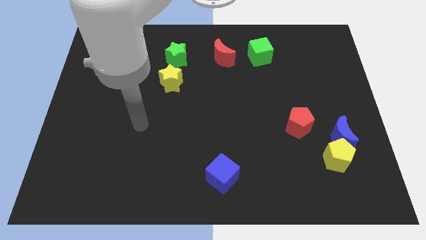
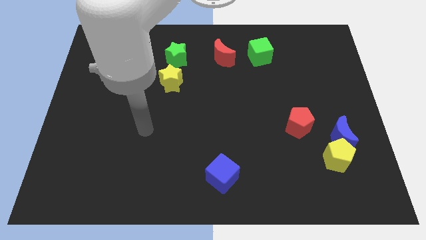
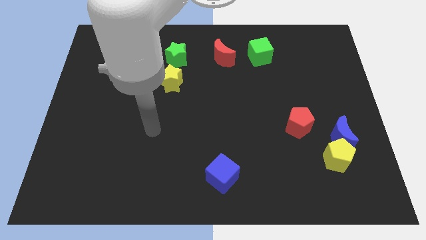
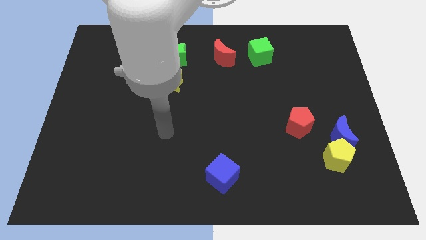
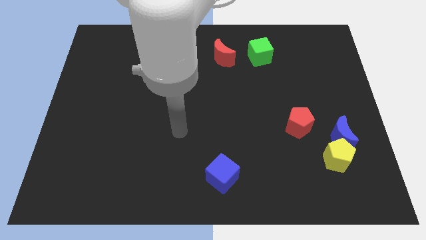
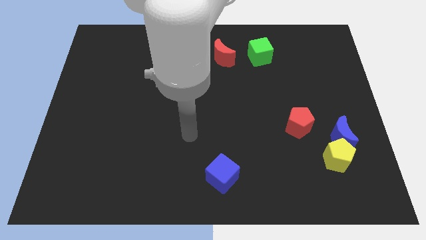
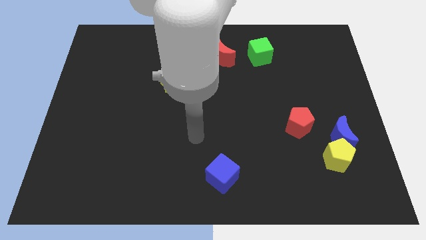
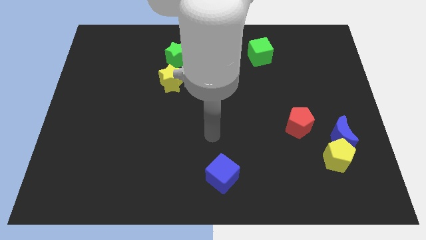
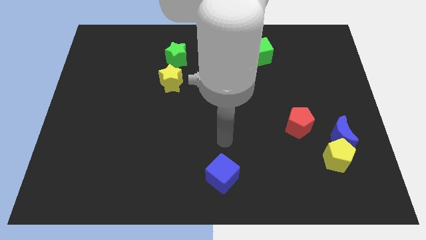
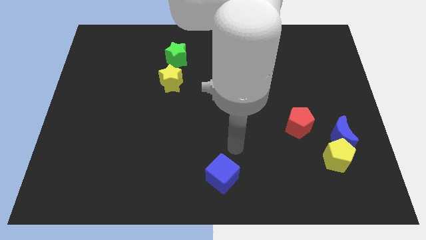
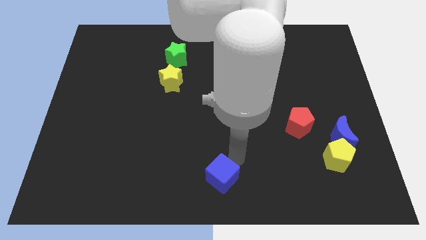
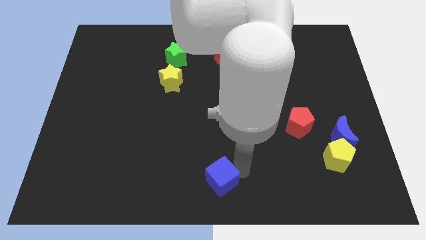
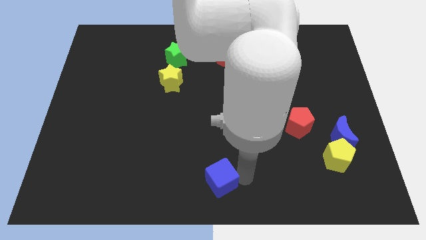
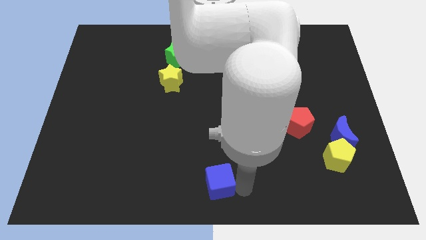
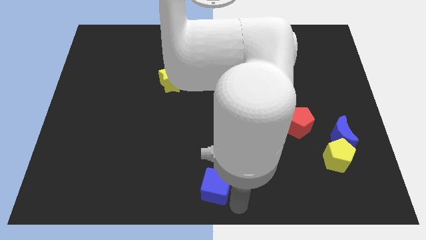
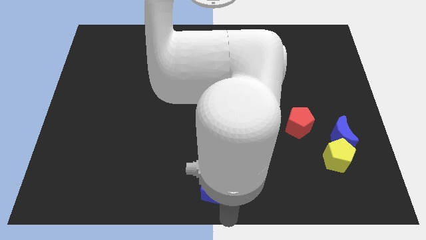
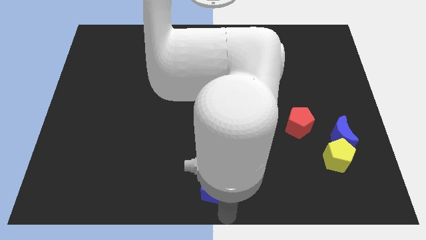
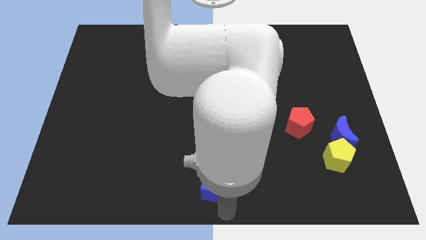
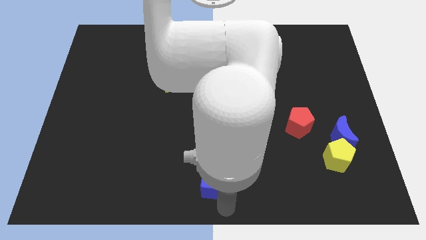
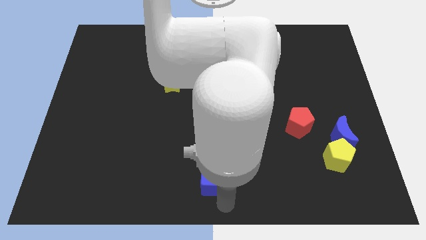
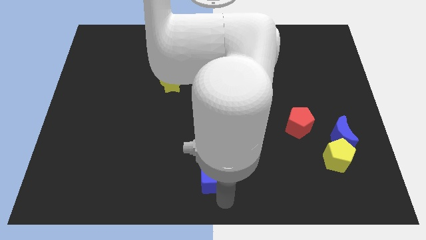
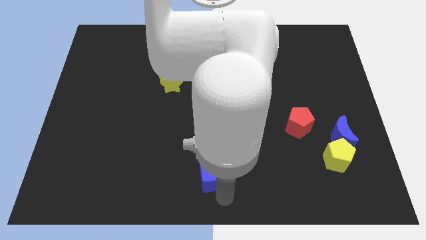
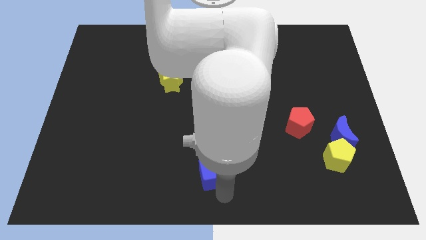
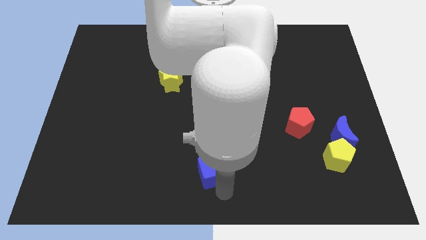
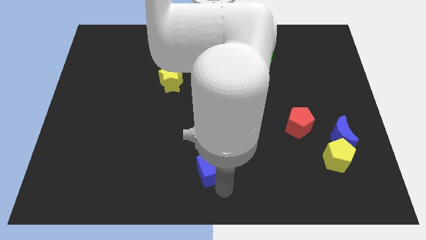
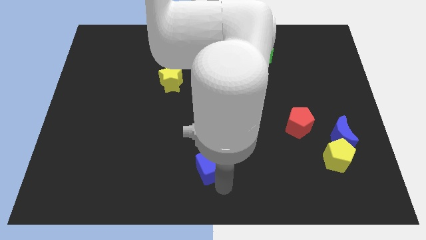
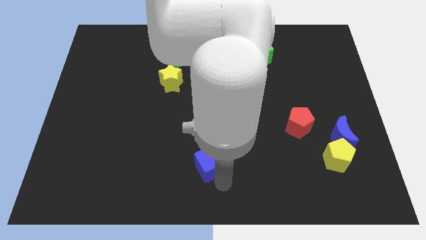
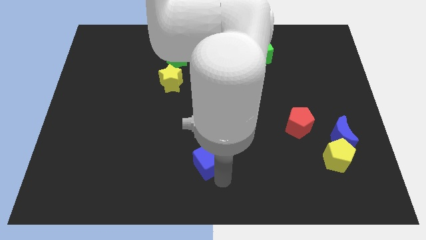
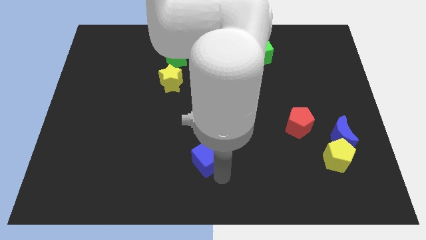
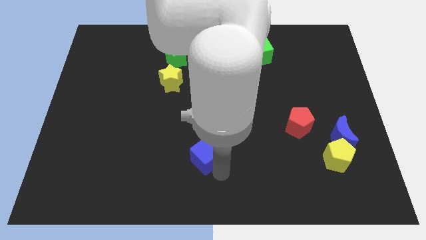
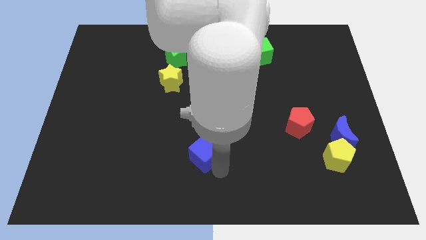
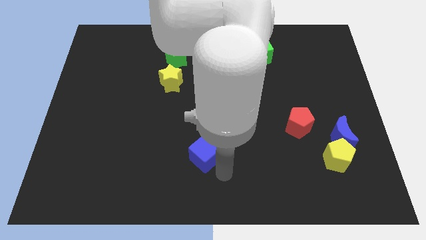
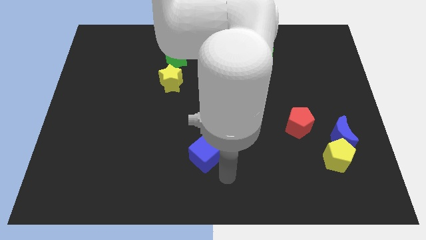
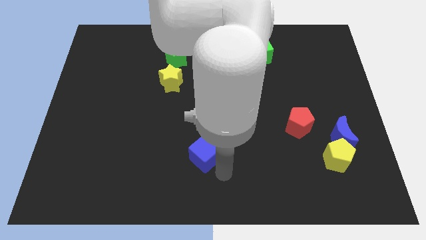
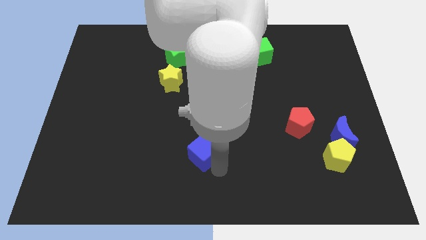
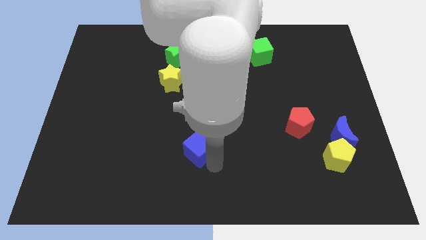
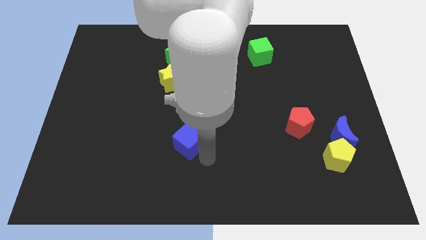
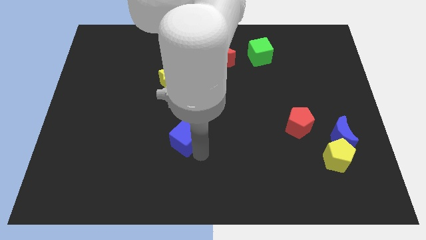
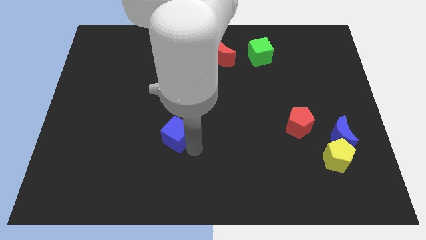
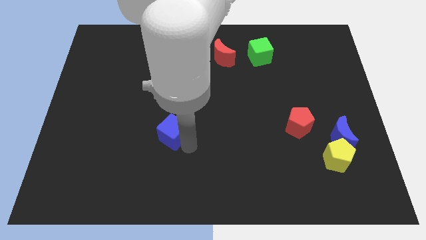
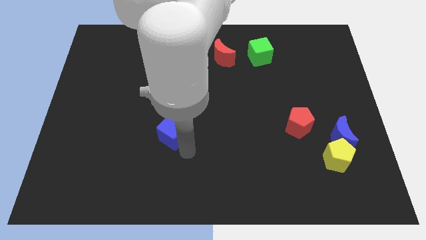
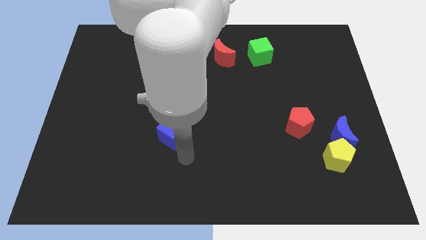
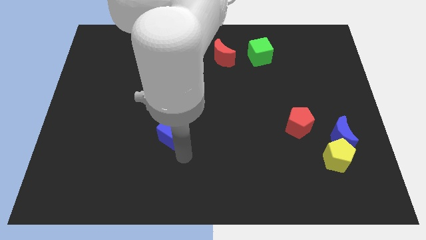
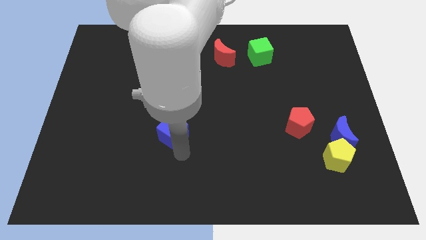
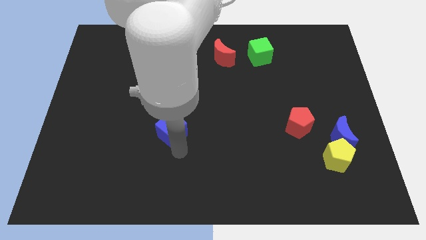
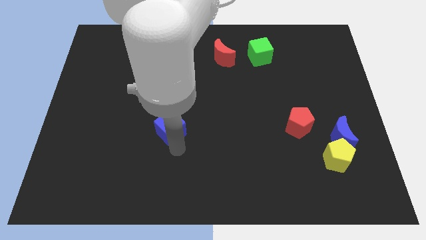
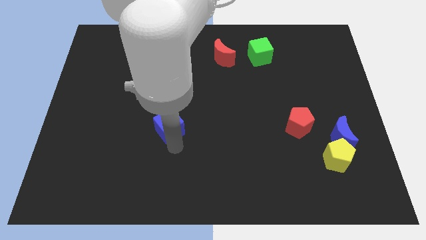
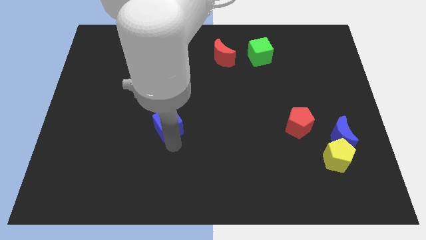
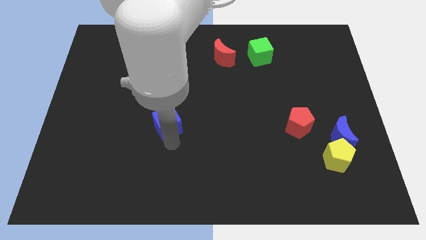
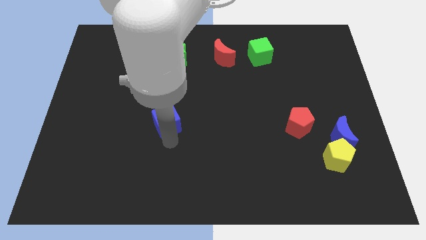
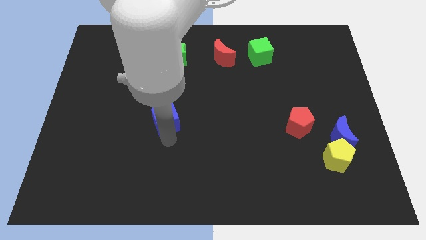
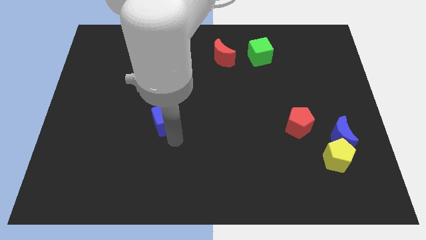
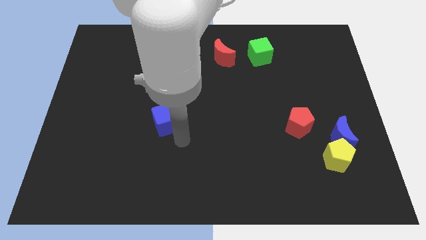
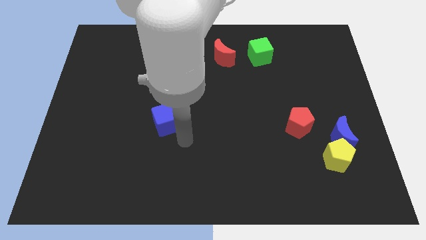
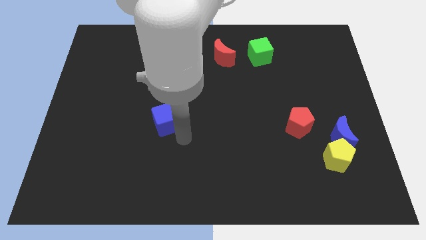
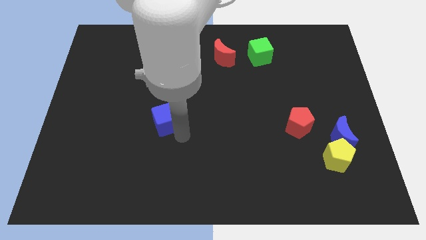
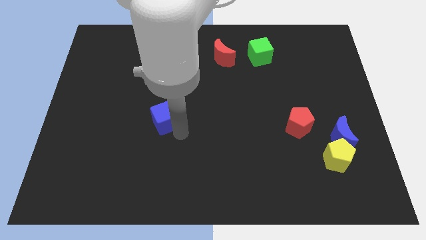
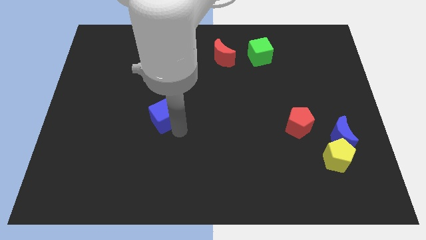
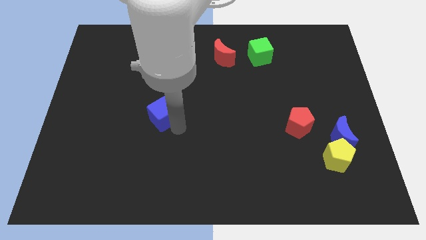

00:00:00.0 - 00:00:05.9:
push the blue cube upwards and then left

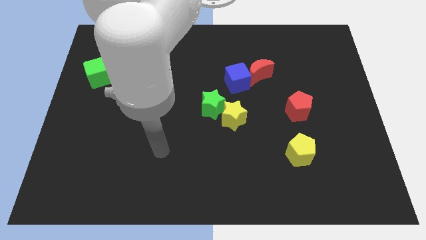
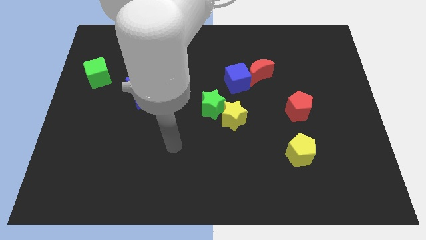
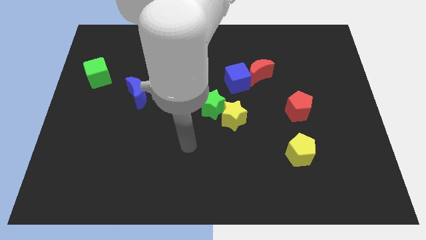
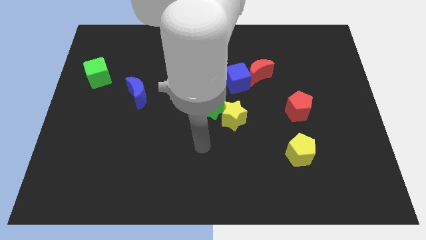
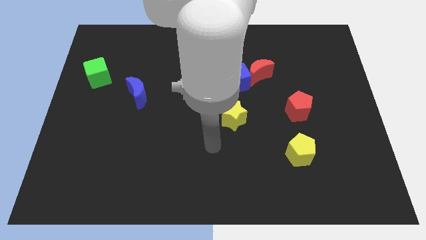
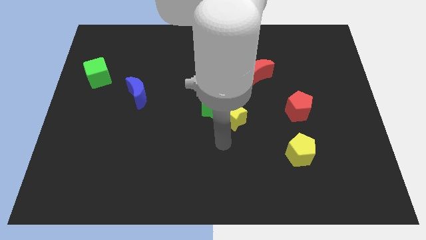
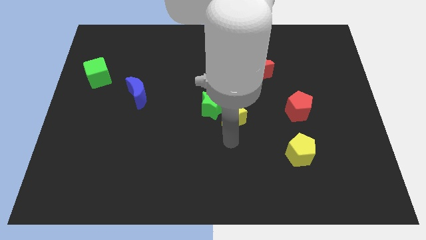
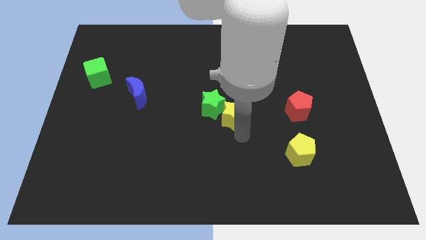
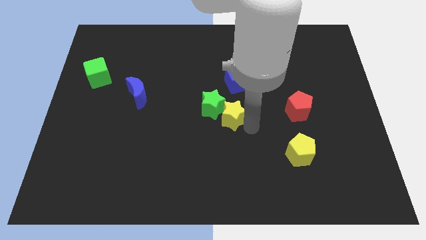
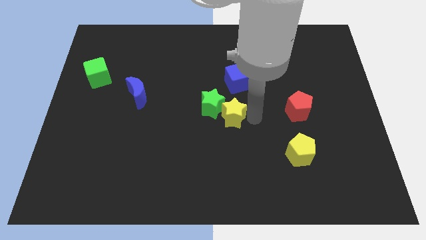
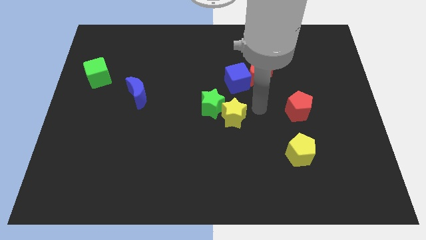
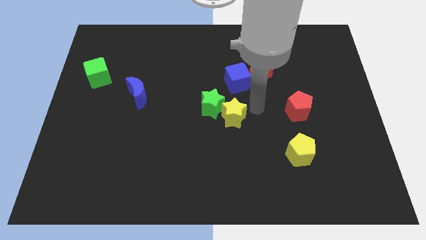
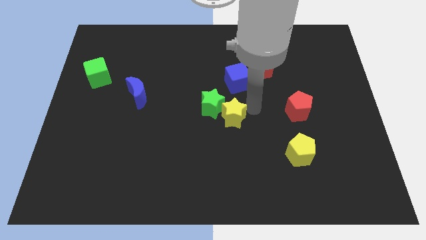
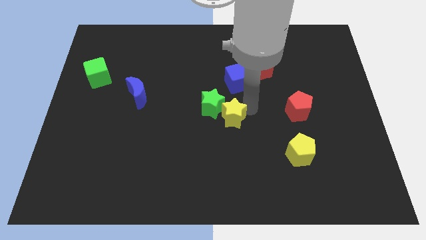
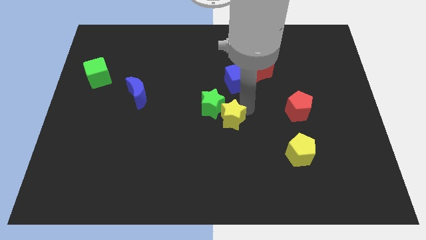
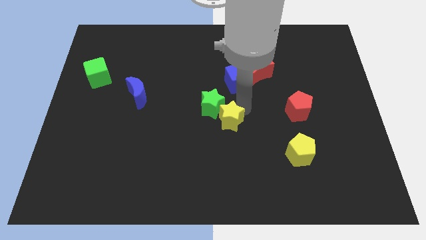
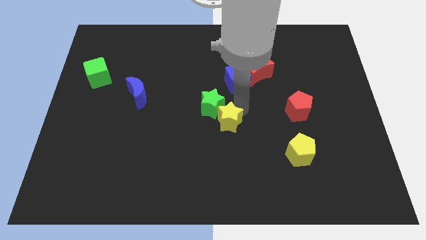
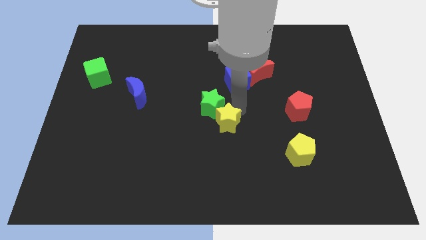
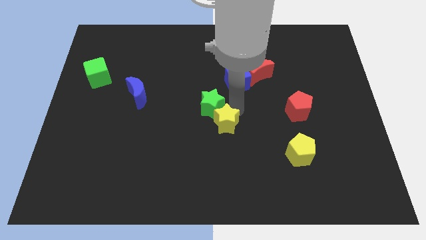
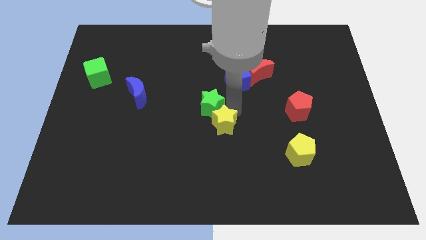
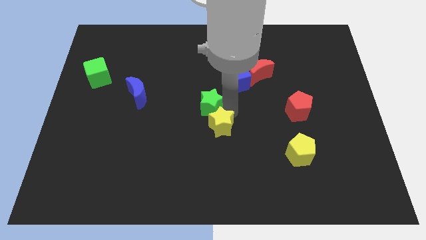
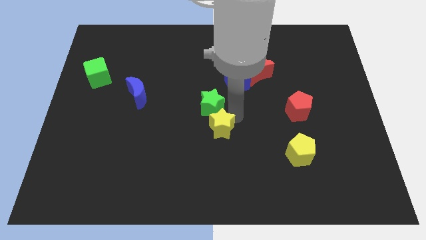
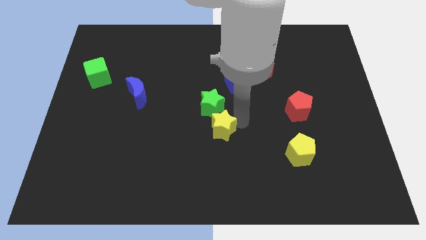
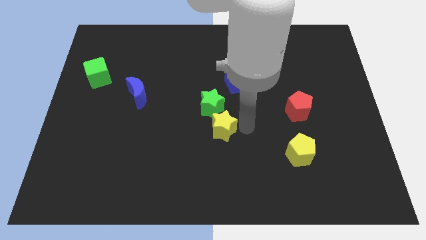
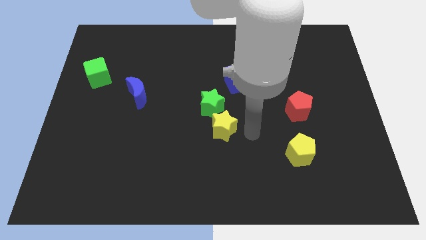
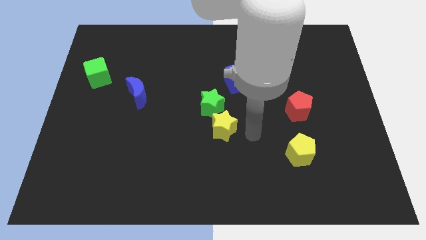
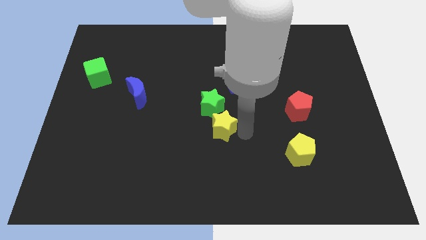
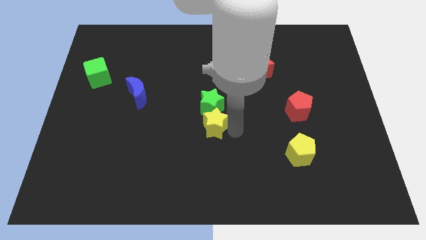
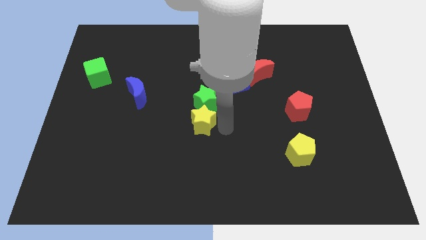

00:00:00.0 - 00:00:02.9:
move the yellow star left a little
